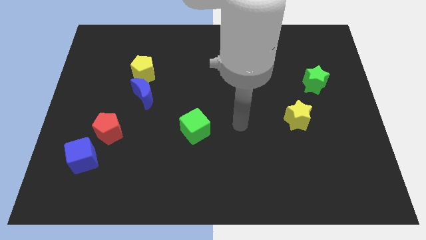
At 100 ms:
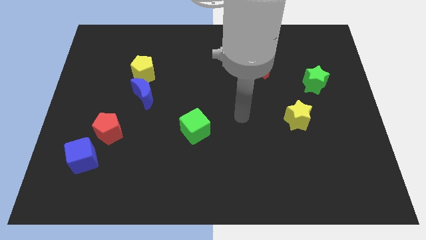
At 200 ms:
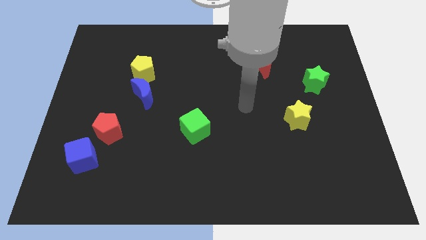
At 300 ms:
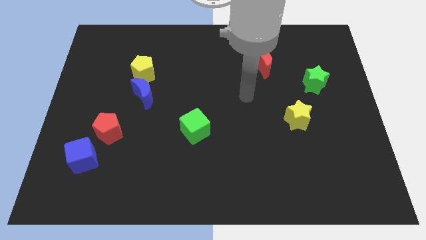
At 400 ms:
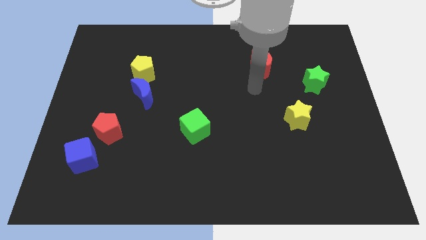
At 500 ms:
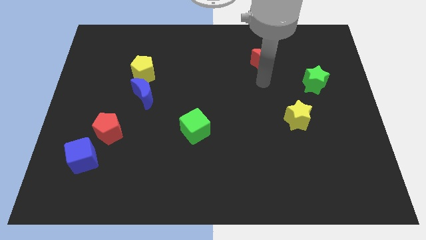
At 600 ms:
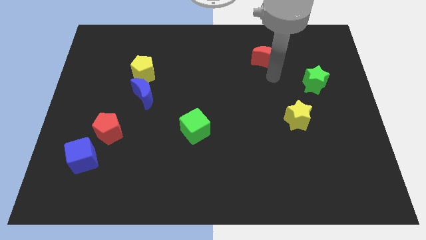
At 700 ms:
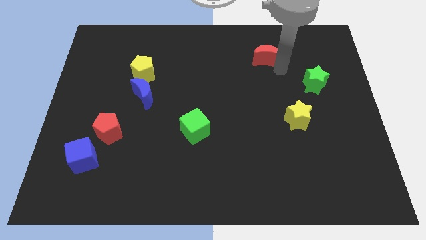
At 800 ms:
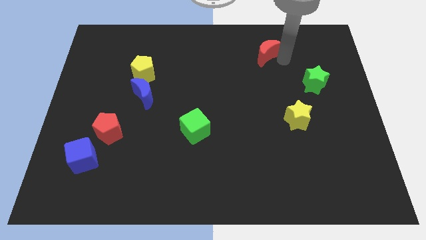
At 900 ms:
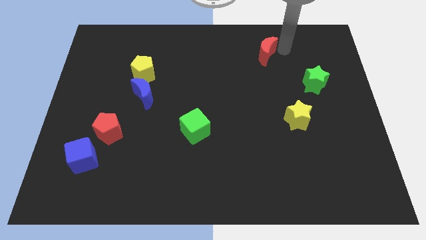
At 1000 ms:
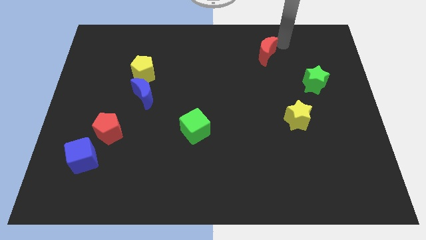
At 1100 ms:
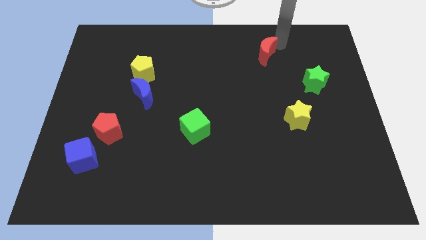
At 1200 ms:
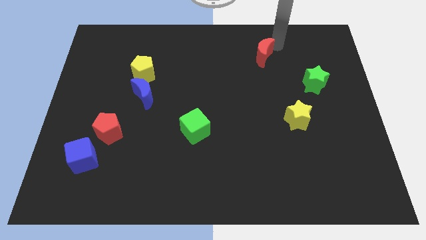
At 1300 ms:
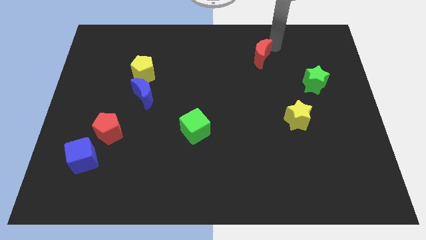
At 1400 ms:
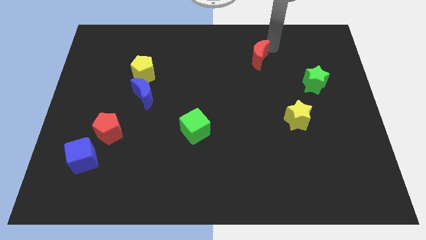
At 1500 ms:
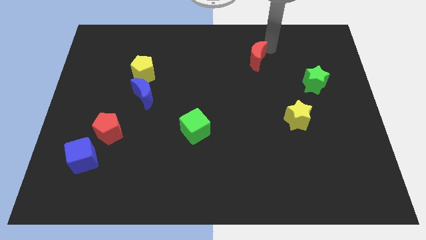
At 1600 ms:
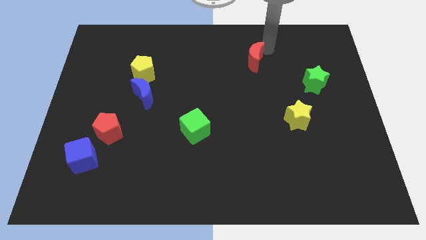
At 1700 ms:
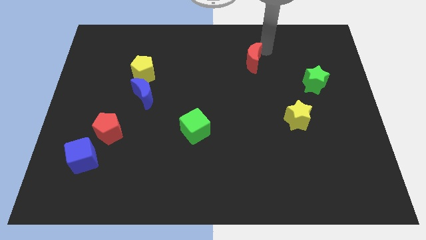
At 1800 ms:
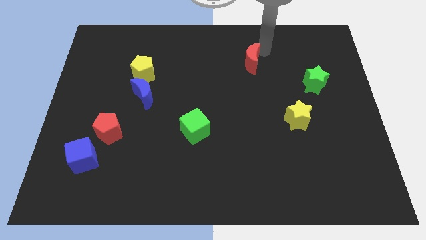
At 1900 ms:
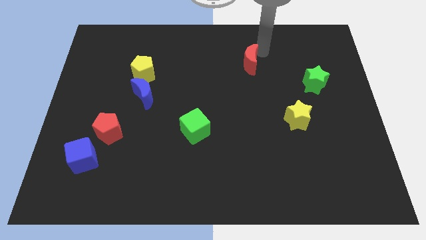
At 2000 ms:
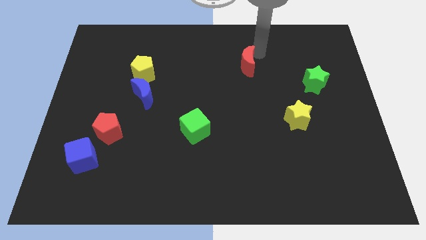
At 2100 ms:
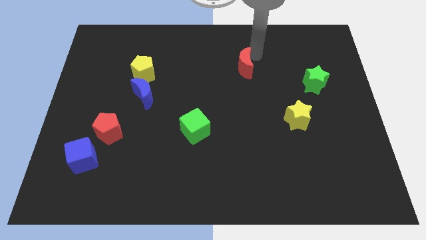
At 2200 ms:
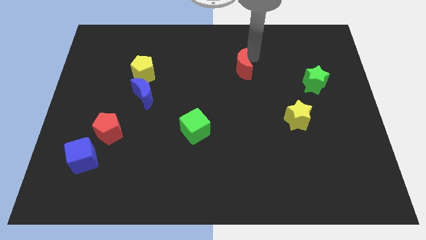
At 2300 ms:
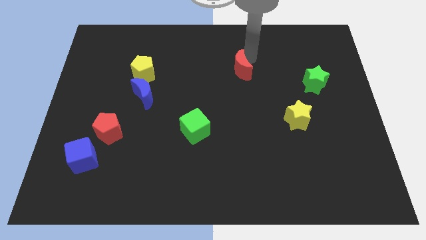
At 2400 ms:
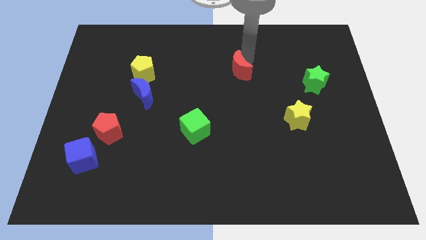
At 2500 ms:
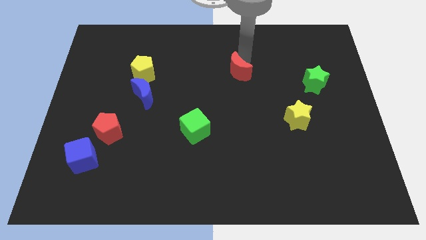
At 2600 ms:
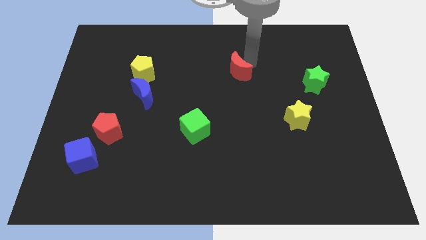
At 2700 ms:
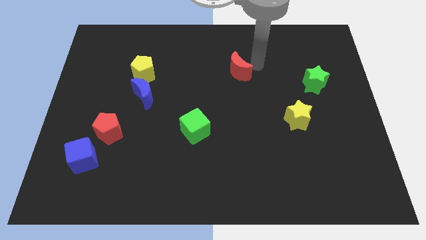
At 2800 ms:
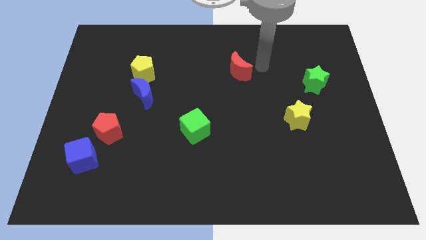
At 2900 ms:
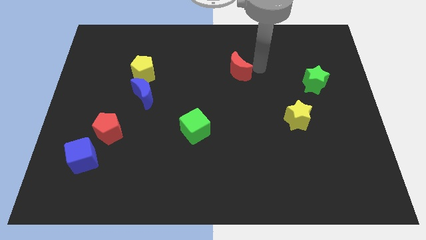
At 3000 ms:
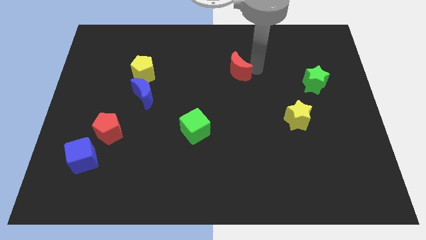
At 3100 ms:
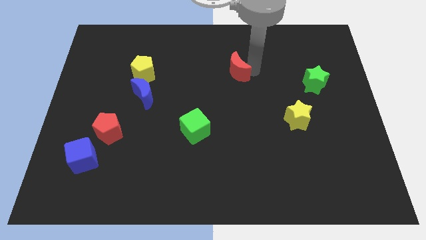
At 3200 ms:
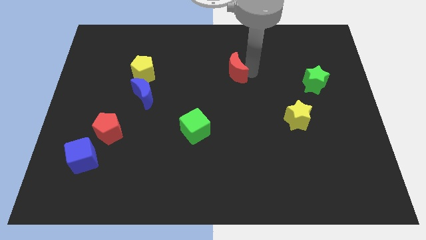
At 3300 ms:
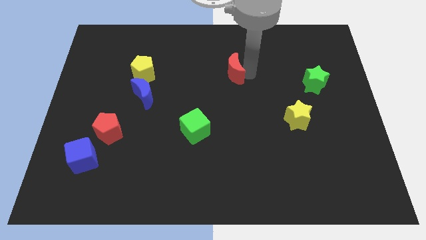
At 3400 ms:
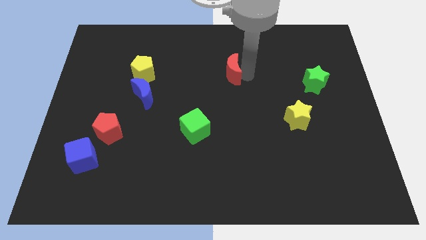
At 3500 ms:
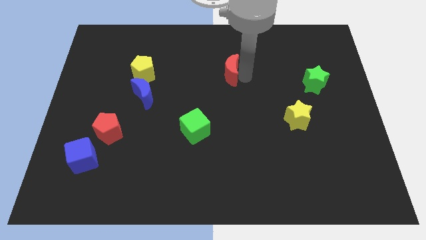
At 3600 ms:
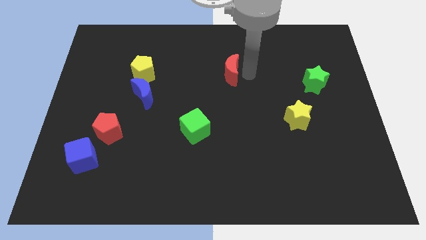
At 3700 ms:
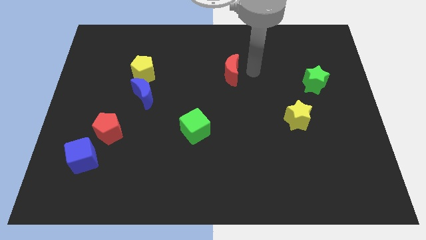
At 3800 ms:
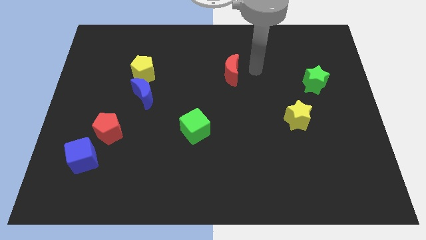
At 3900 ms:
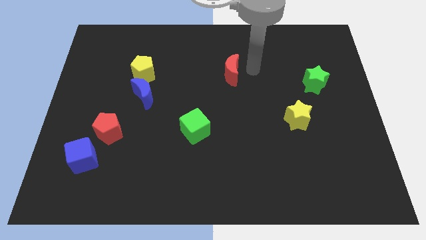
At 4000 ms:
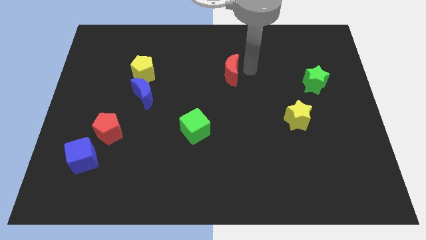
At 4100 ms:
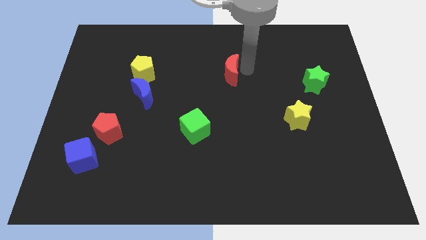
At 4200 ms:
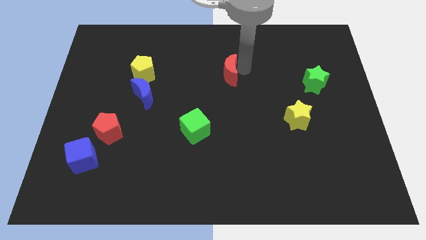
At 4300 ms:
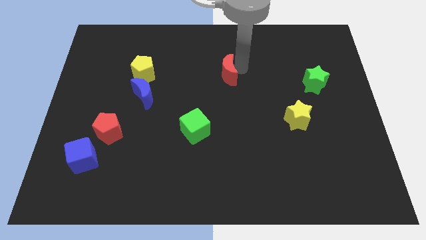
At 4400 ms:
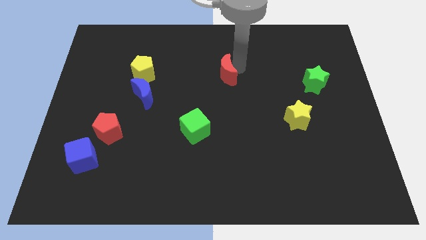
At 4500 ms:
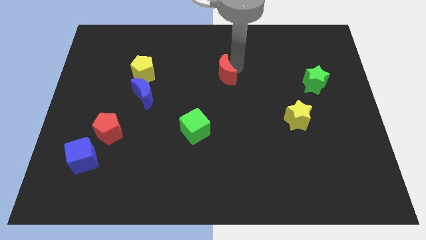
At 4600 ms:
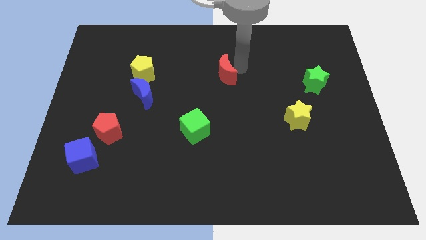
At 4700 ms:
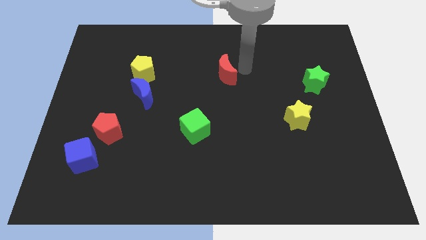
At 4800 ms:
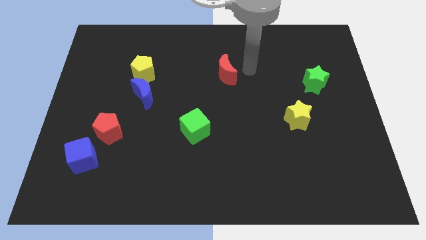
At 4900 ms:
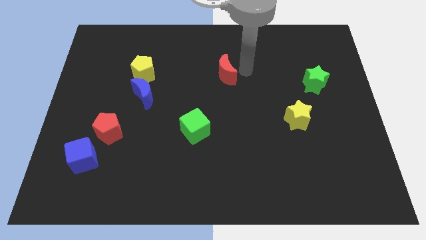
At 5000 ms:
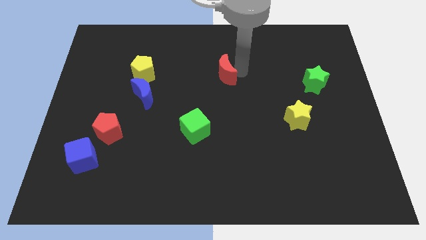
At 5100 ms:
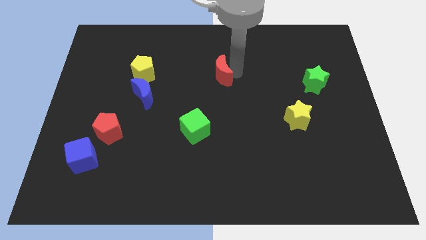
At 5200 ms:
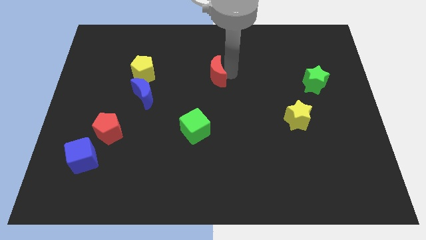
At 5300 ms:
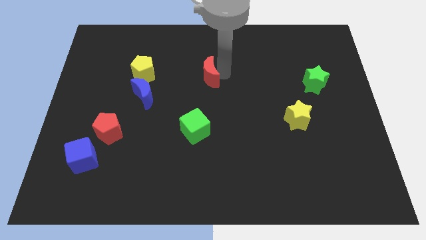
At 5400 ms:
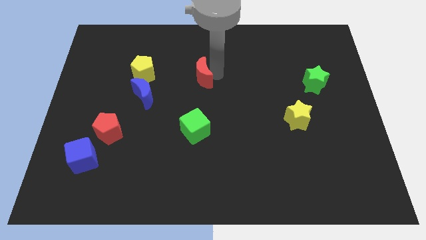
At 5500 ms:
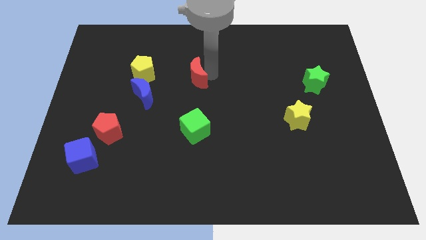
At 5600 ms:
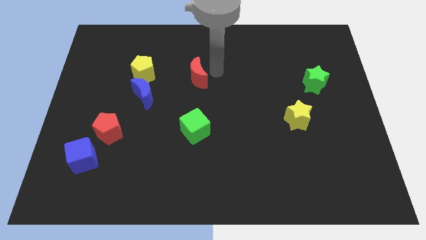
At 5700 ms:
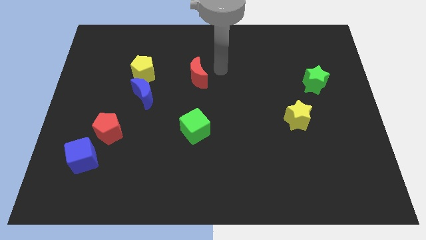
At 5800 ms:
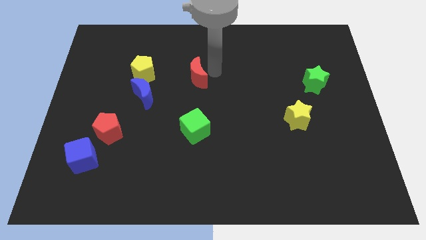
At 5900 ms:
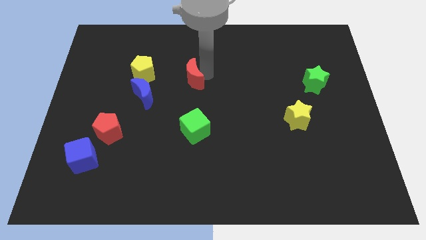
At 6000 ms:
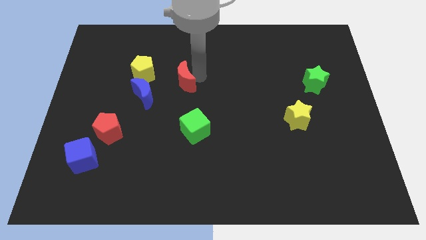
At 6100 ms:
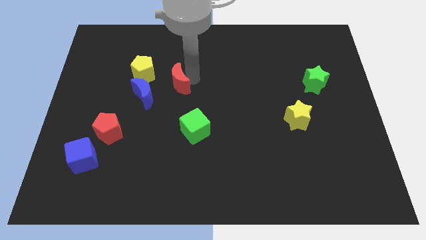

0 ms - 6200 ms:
move the red moon diagonally down and to the right of the yellow pentagon

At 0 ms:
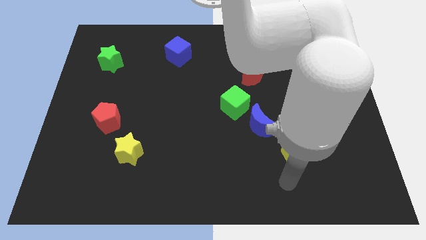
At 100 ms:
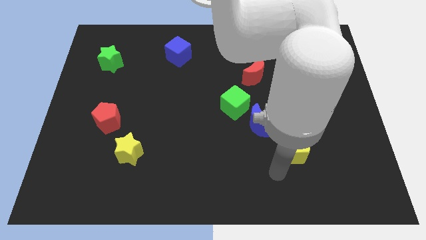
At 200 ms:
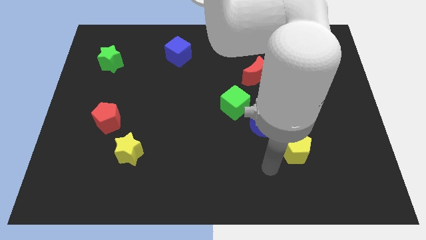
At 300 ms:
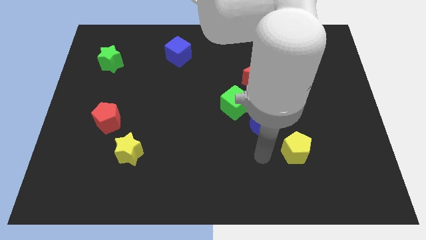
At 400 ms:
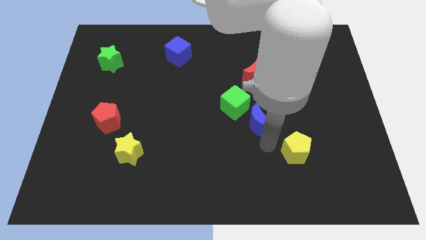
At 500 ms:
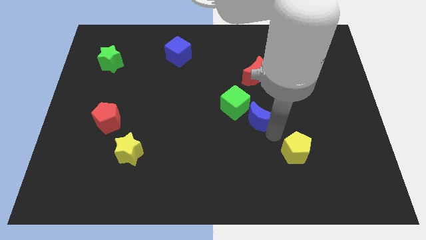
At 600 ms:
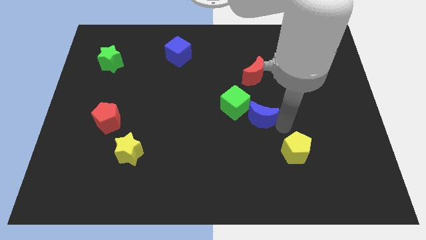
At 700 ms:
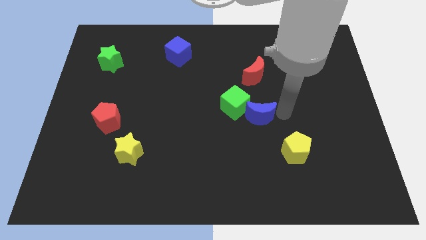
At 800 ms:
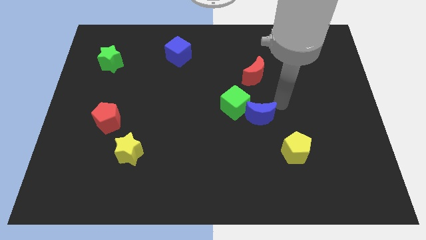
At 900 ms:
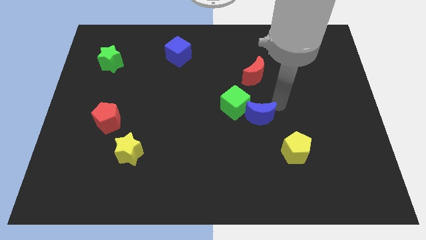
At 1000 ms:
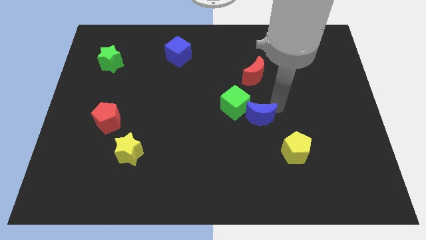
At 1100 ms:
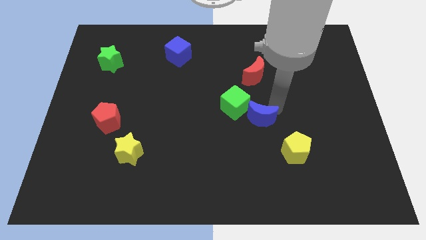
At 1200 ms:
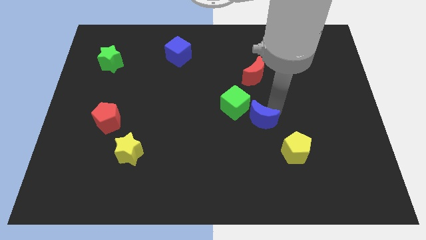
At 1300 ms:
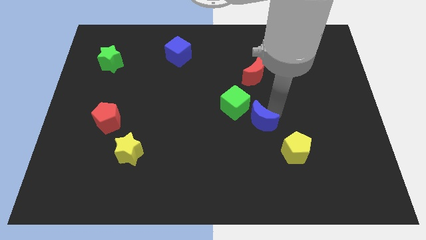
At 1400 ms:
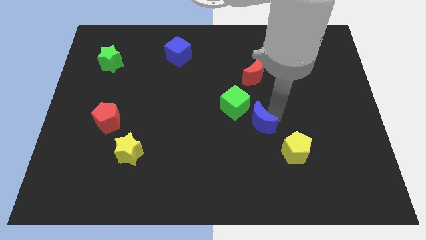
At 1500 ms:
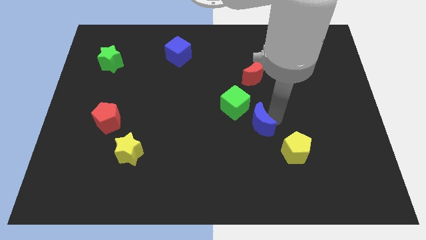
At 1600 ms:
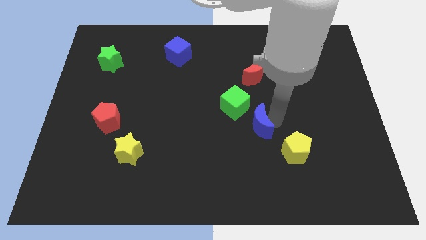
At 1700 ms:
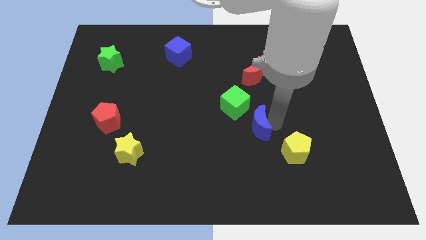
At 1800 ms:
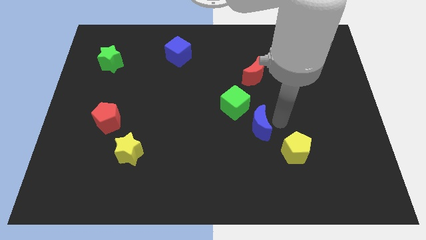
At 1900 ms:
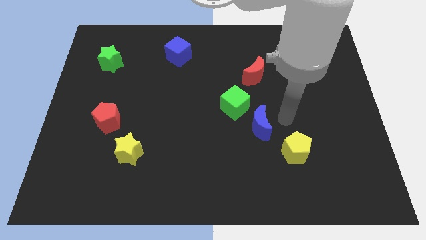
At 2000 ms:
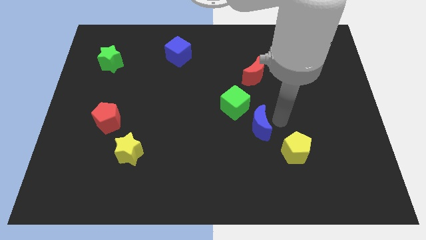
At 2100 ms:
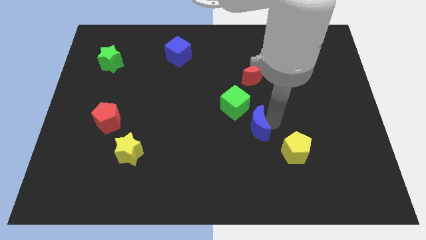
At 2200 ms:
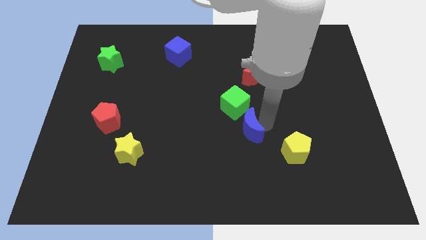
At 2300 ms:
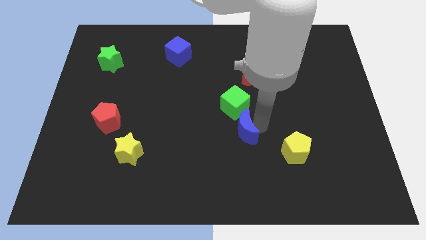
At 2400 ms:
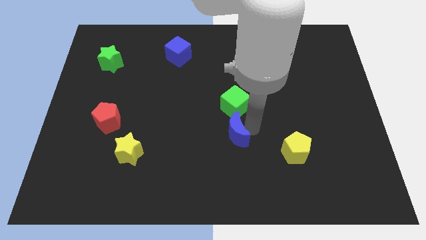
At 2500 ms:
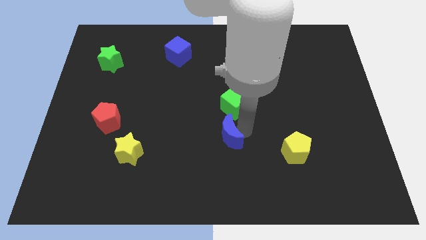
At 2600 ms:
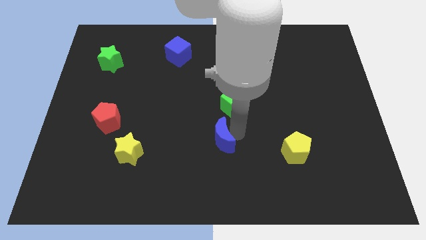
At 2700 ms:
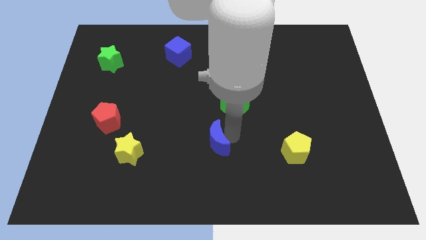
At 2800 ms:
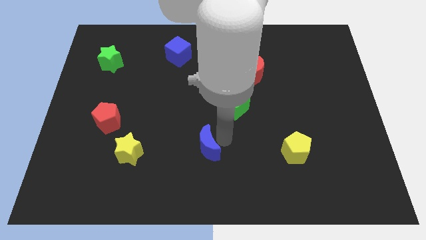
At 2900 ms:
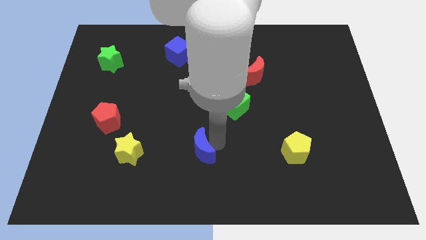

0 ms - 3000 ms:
put the blue moon just right of the yellow star
